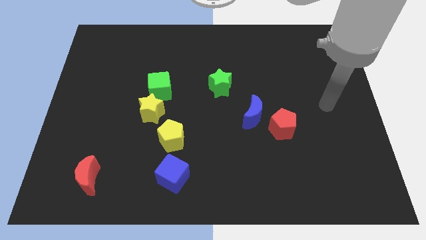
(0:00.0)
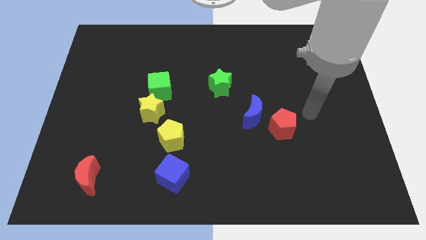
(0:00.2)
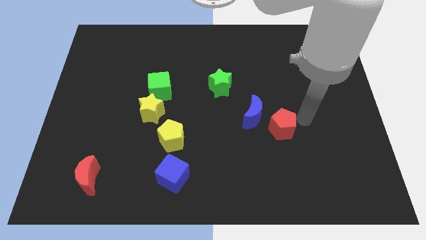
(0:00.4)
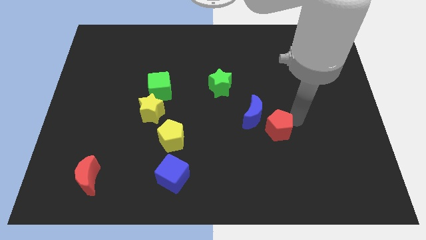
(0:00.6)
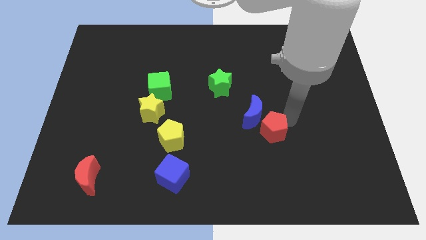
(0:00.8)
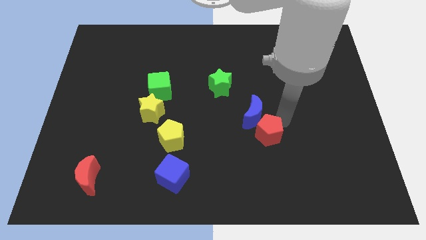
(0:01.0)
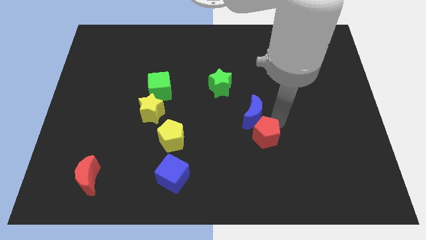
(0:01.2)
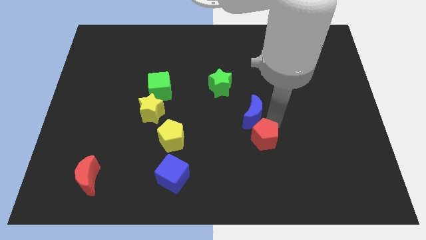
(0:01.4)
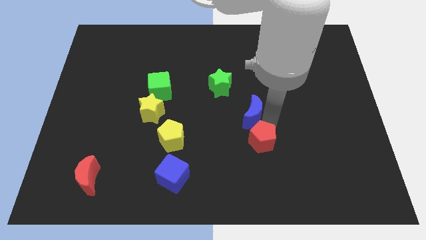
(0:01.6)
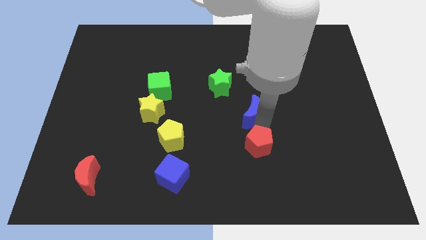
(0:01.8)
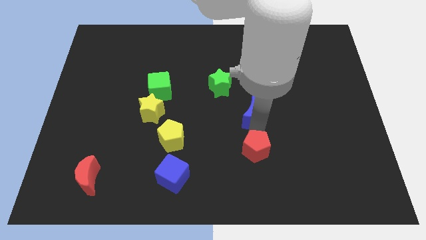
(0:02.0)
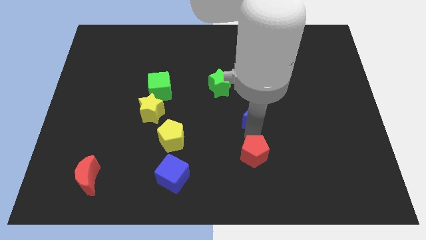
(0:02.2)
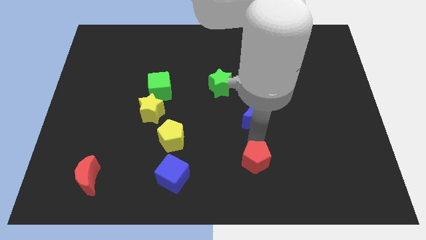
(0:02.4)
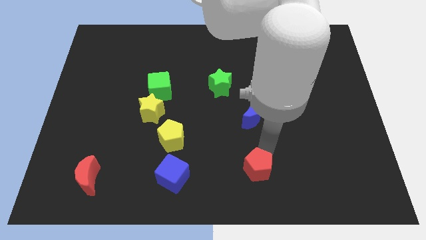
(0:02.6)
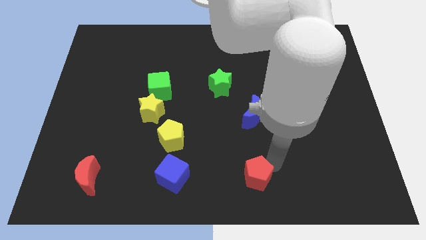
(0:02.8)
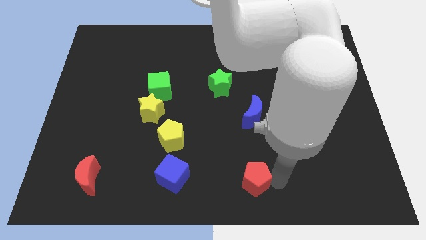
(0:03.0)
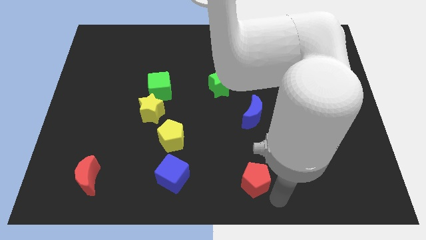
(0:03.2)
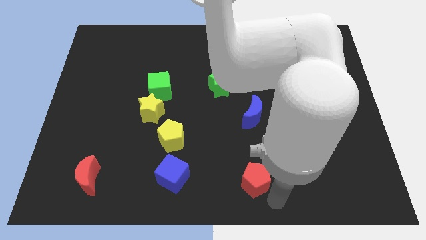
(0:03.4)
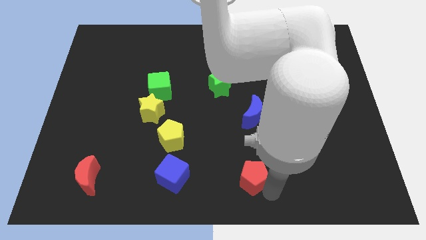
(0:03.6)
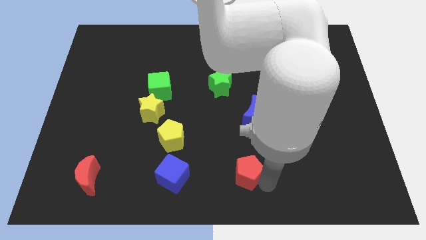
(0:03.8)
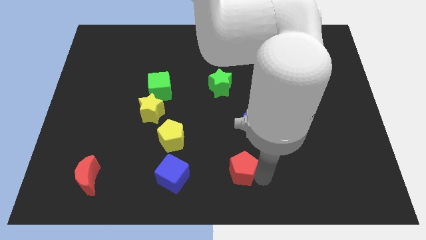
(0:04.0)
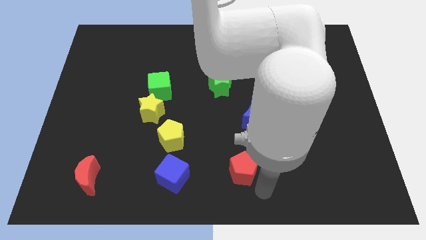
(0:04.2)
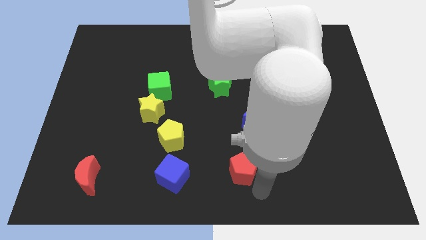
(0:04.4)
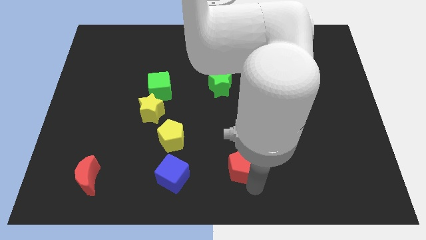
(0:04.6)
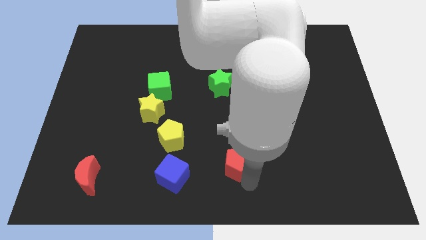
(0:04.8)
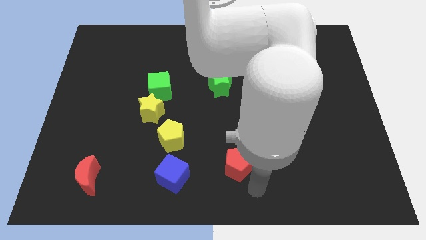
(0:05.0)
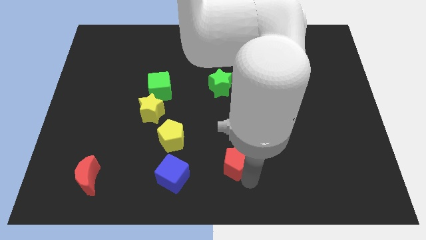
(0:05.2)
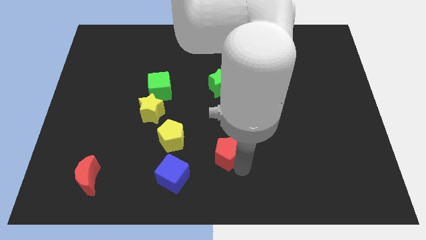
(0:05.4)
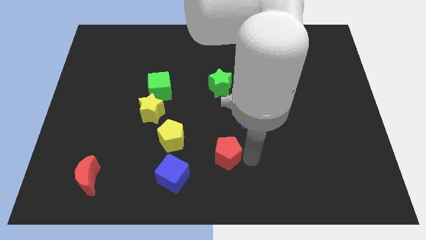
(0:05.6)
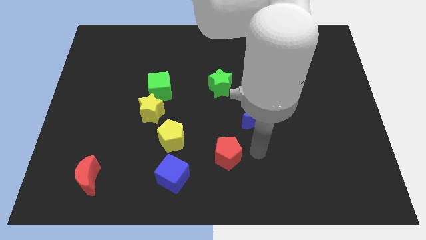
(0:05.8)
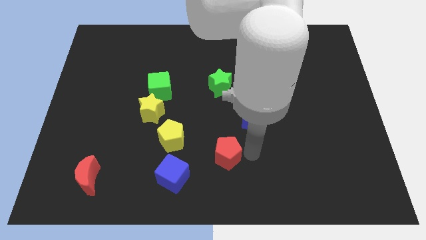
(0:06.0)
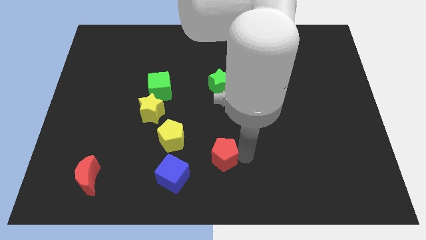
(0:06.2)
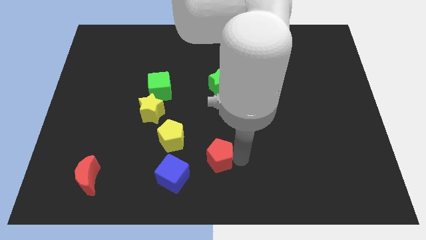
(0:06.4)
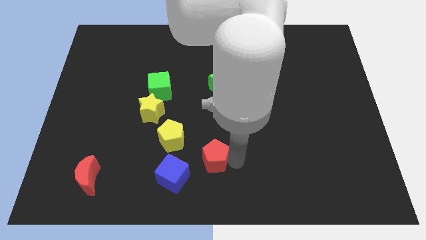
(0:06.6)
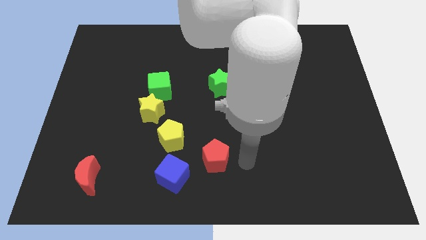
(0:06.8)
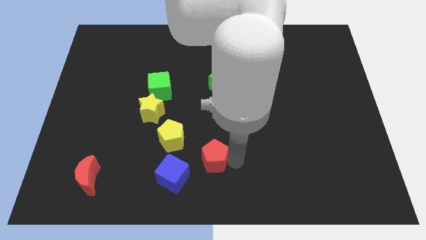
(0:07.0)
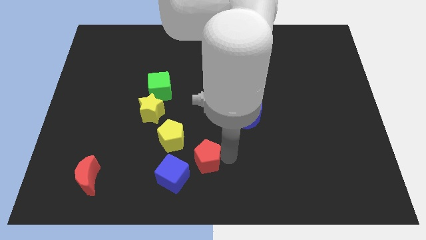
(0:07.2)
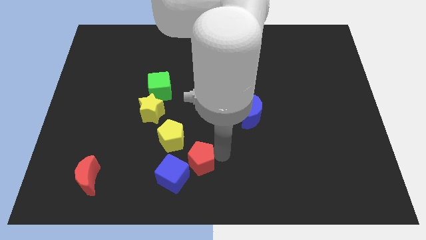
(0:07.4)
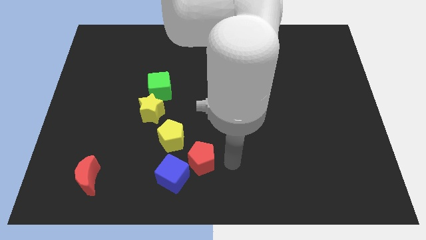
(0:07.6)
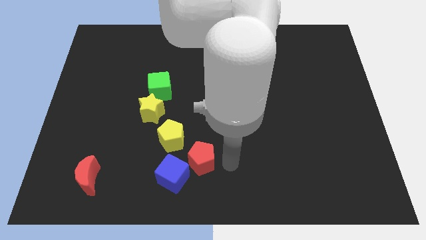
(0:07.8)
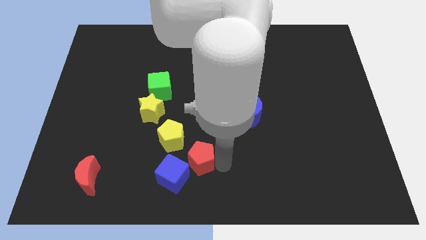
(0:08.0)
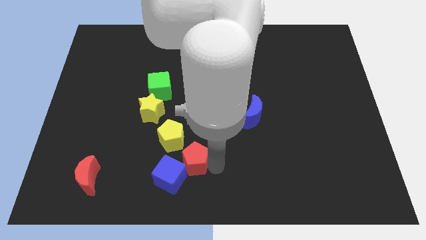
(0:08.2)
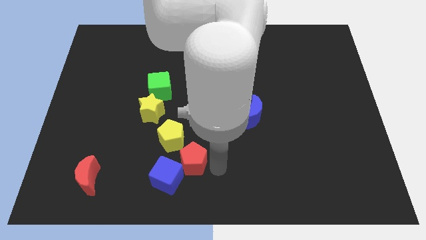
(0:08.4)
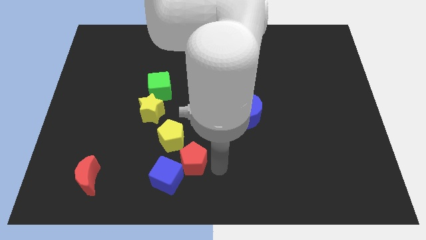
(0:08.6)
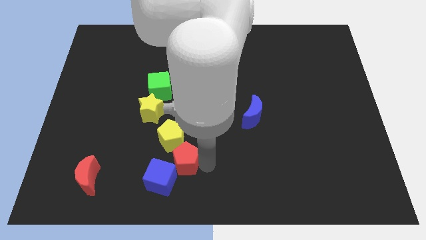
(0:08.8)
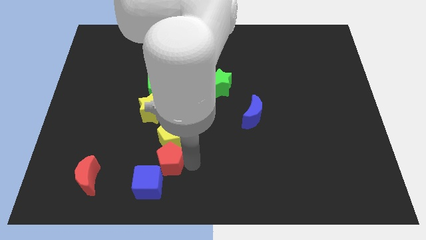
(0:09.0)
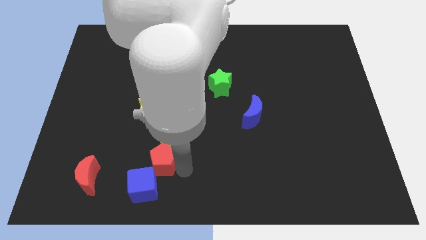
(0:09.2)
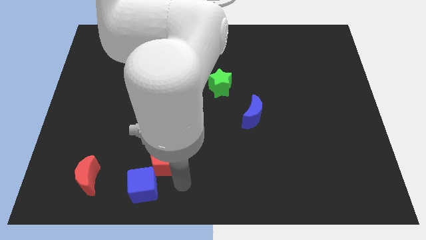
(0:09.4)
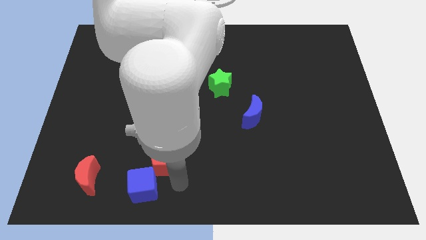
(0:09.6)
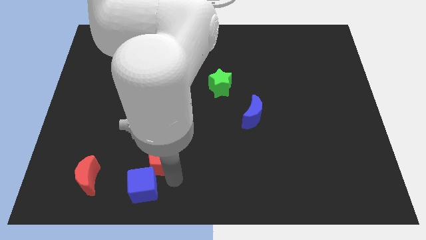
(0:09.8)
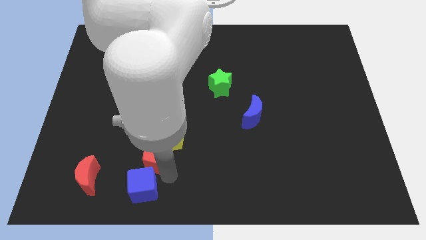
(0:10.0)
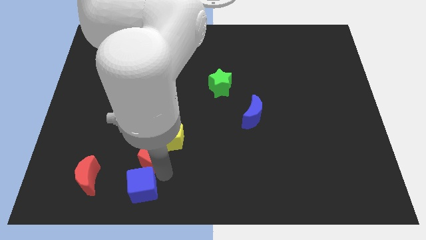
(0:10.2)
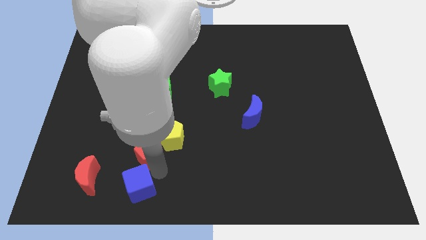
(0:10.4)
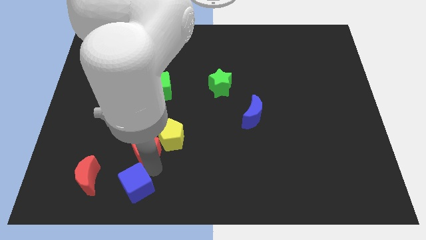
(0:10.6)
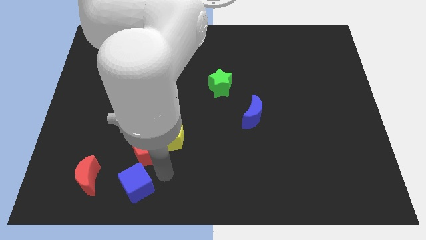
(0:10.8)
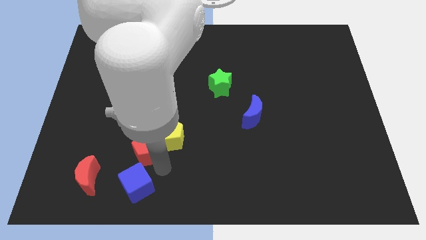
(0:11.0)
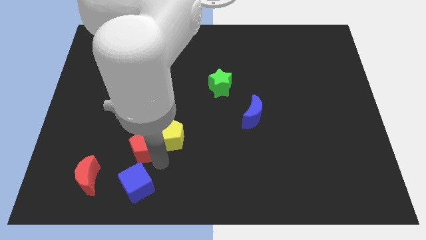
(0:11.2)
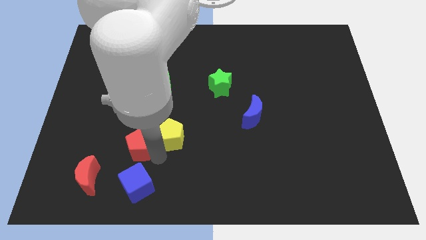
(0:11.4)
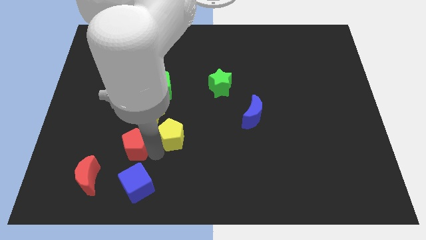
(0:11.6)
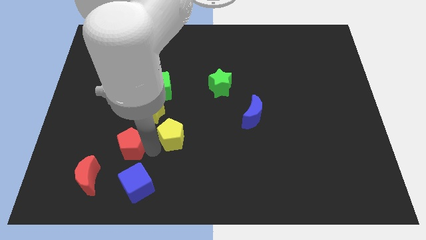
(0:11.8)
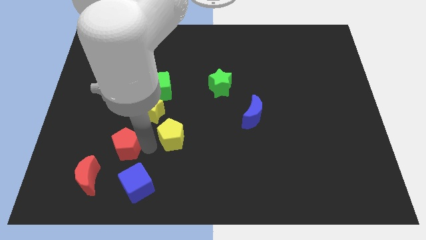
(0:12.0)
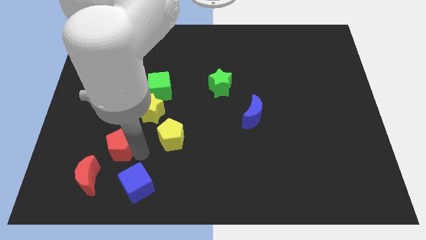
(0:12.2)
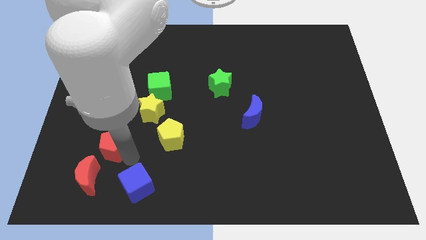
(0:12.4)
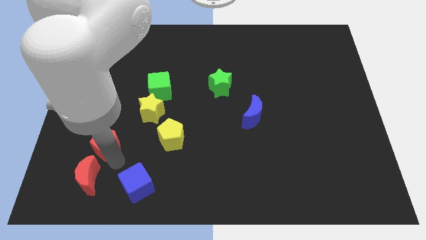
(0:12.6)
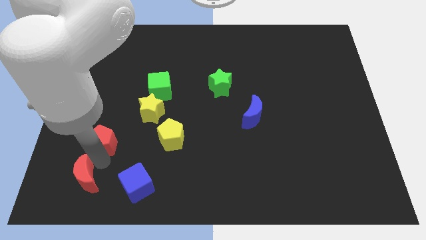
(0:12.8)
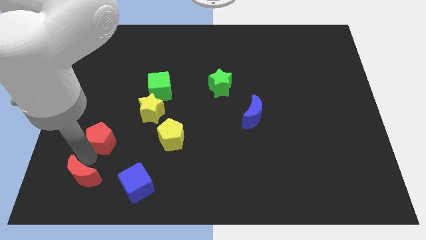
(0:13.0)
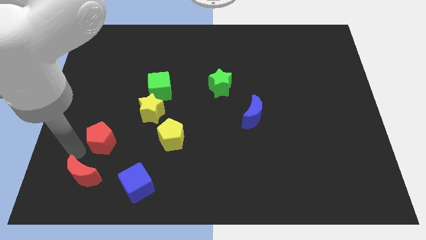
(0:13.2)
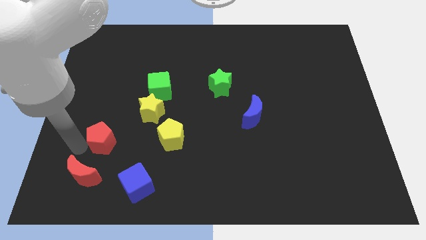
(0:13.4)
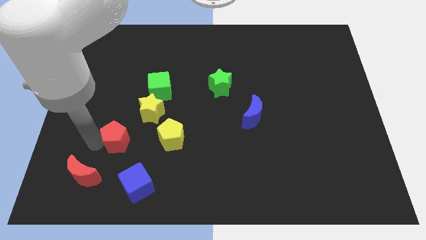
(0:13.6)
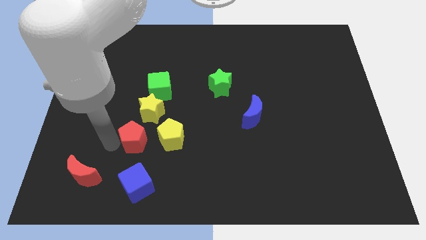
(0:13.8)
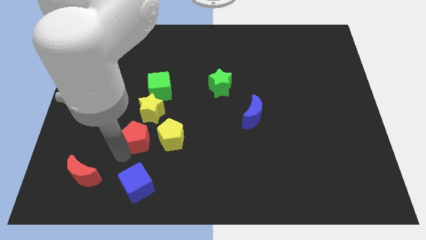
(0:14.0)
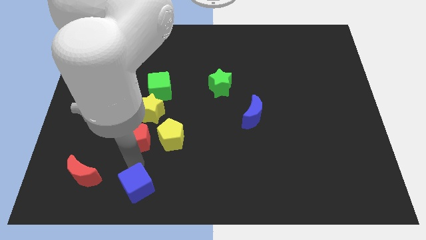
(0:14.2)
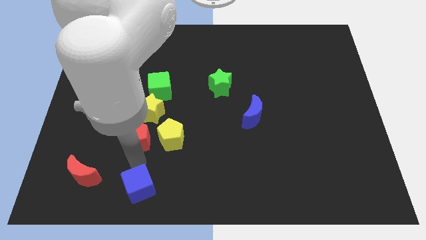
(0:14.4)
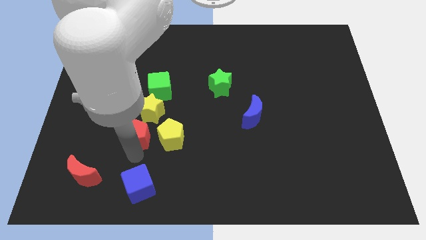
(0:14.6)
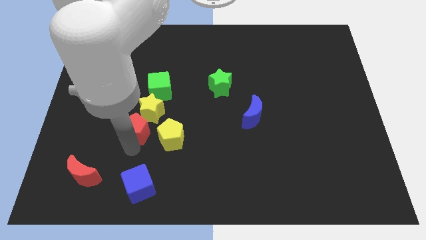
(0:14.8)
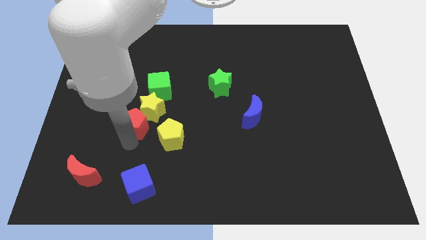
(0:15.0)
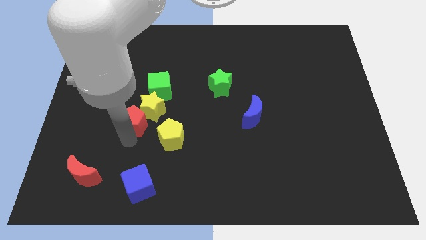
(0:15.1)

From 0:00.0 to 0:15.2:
push the red pentagon diagonally down and to the left of the green cube
